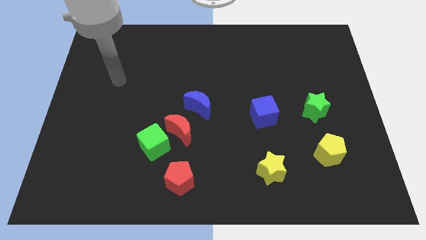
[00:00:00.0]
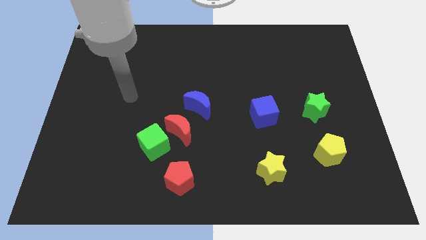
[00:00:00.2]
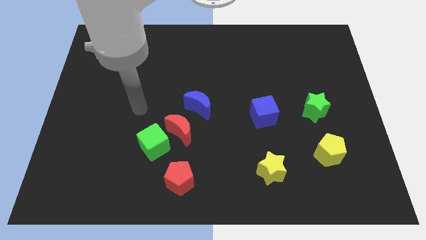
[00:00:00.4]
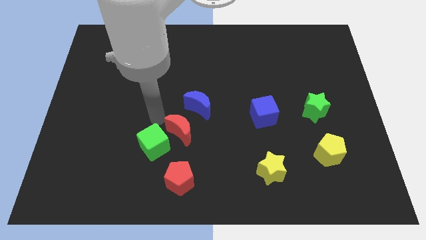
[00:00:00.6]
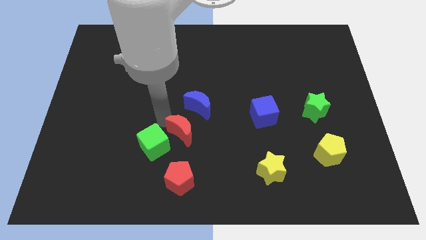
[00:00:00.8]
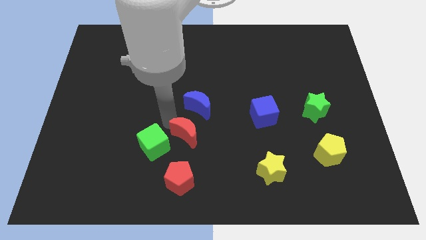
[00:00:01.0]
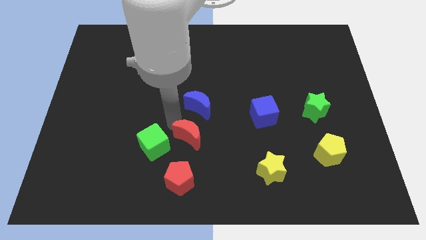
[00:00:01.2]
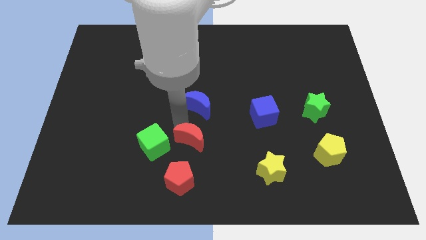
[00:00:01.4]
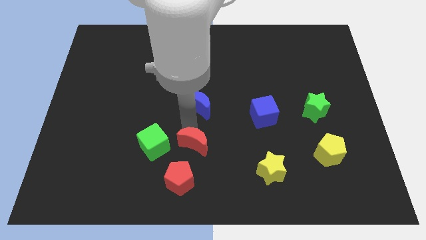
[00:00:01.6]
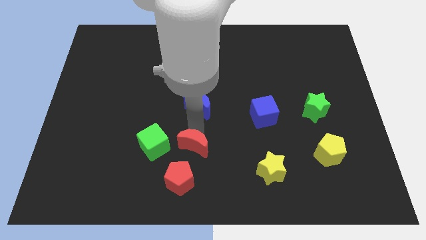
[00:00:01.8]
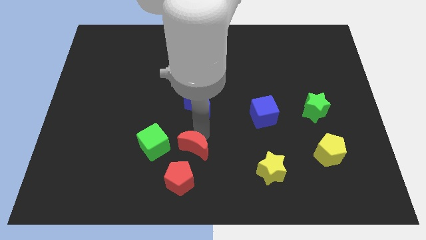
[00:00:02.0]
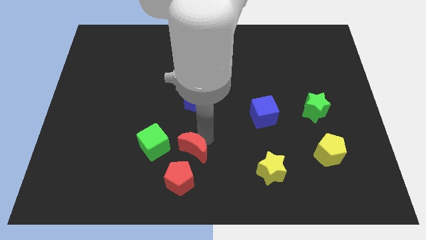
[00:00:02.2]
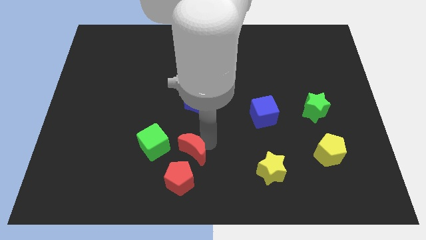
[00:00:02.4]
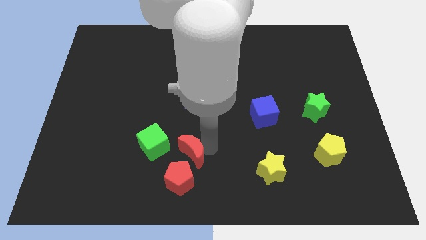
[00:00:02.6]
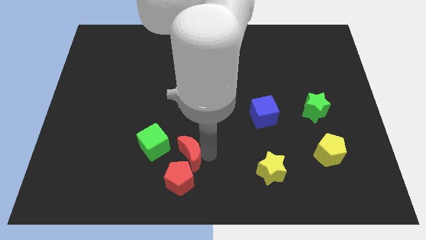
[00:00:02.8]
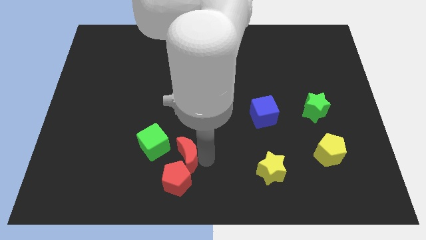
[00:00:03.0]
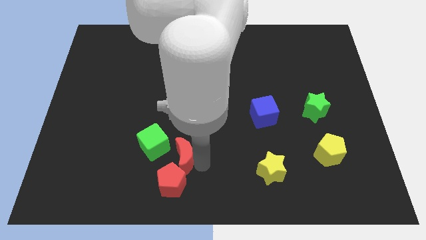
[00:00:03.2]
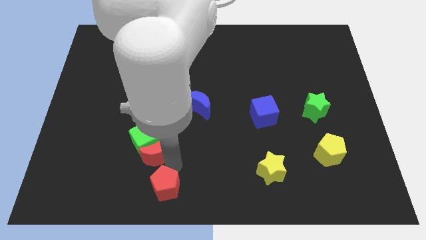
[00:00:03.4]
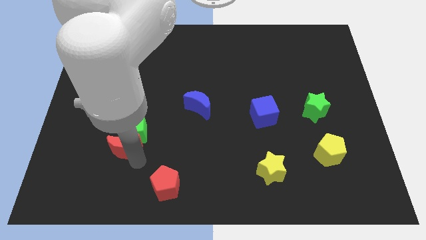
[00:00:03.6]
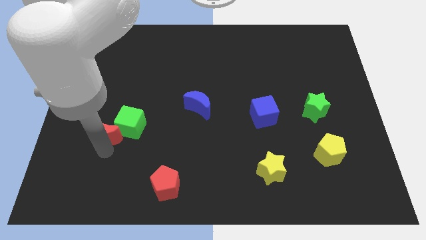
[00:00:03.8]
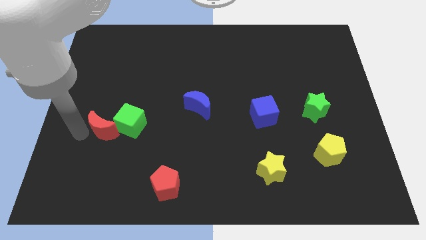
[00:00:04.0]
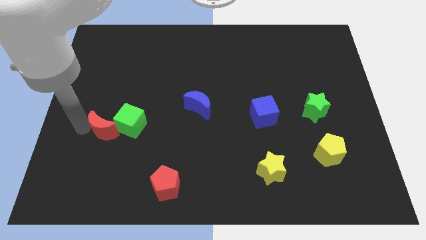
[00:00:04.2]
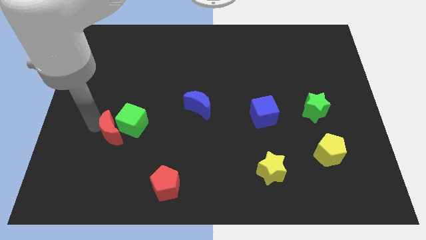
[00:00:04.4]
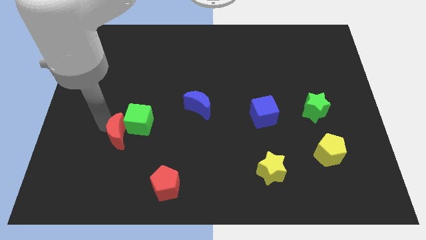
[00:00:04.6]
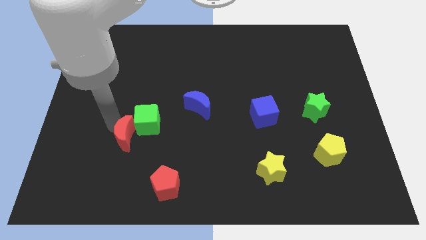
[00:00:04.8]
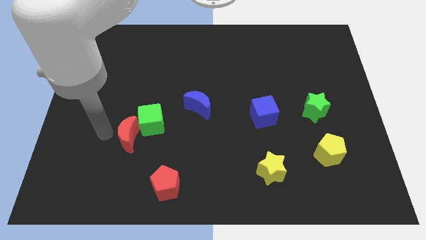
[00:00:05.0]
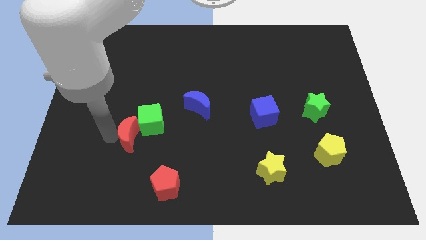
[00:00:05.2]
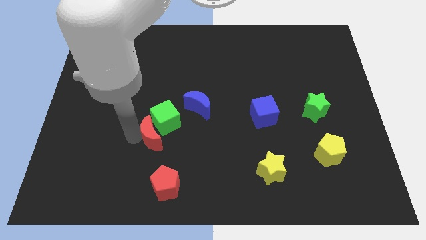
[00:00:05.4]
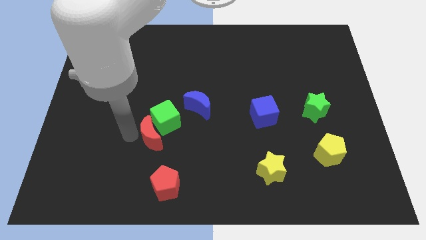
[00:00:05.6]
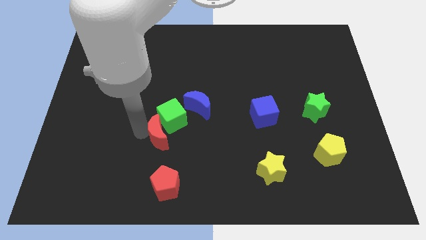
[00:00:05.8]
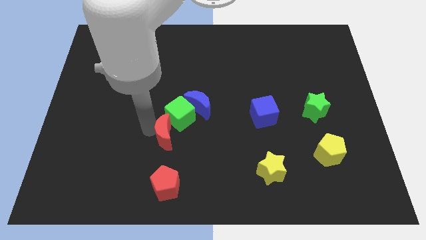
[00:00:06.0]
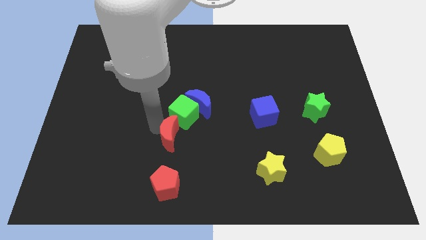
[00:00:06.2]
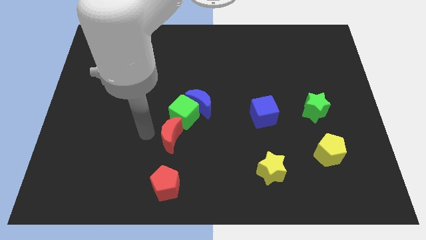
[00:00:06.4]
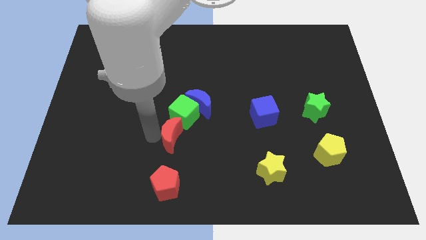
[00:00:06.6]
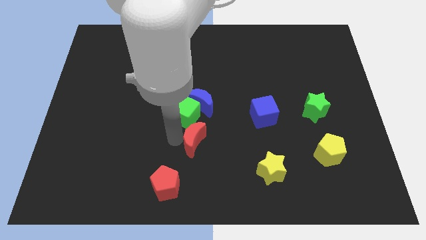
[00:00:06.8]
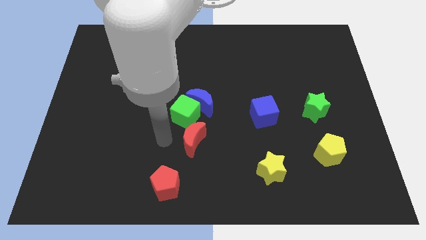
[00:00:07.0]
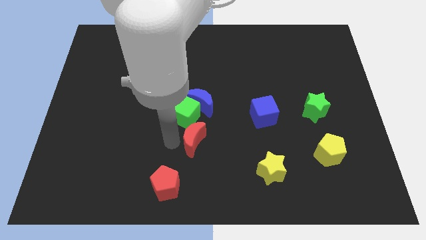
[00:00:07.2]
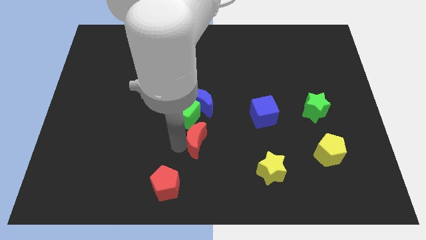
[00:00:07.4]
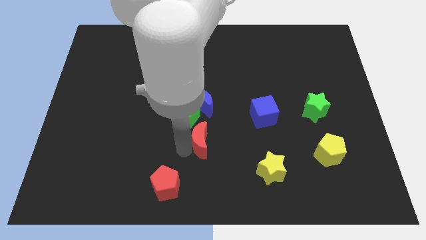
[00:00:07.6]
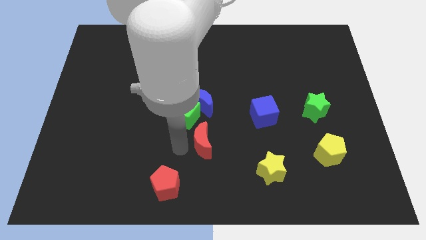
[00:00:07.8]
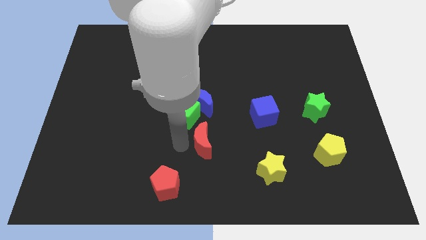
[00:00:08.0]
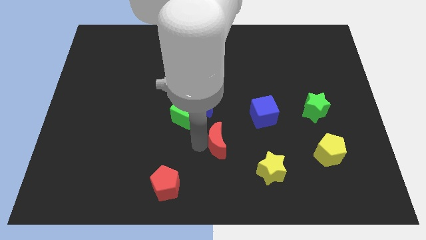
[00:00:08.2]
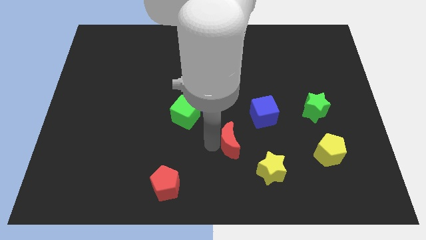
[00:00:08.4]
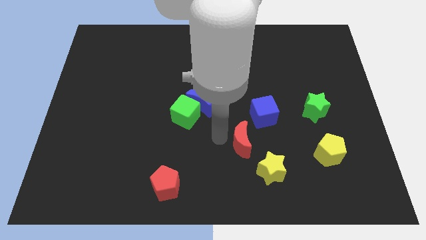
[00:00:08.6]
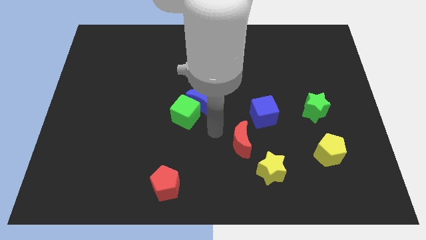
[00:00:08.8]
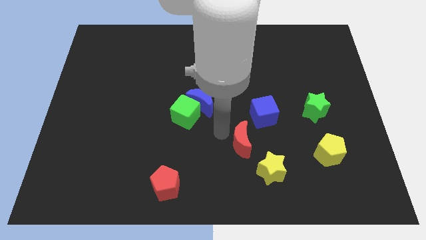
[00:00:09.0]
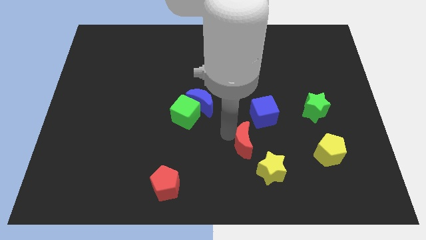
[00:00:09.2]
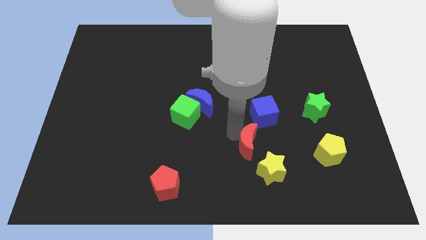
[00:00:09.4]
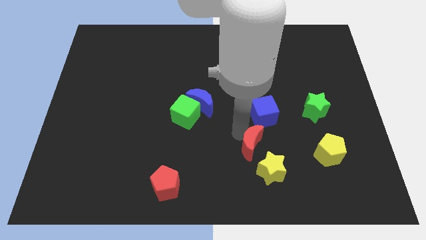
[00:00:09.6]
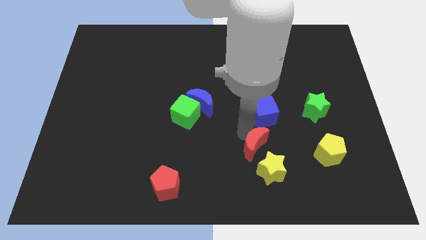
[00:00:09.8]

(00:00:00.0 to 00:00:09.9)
slide the red moon to the left side of the yellow pentagon

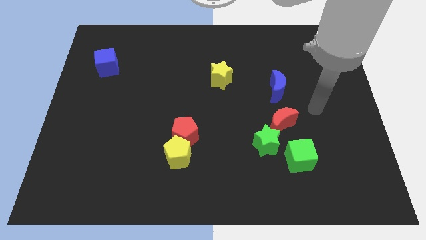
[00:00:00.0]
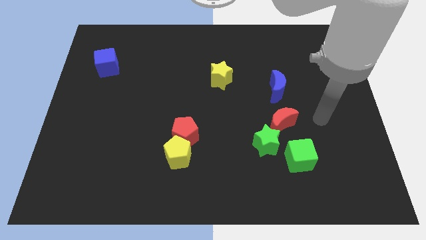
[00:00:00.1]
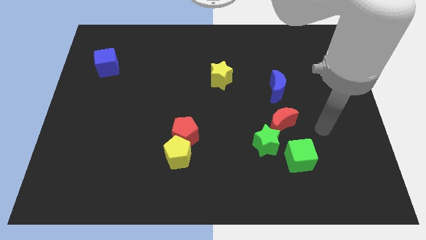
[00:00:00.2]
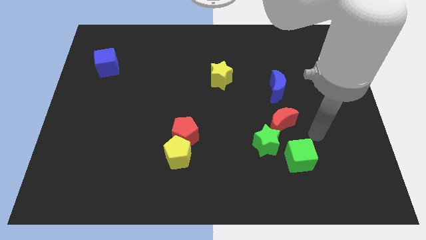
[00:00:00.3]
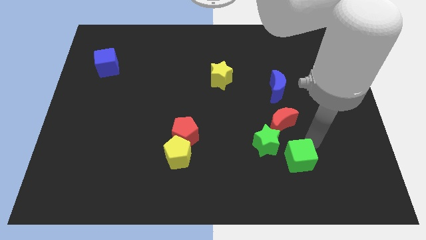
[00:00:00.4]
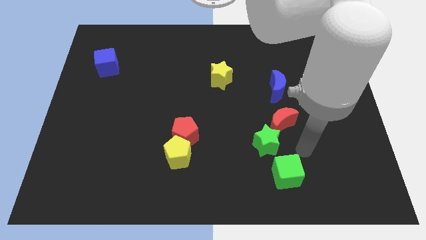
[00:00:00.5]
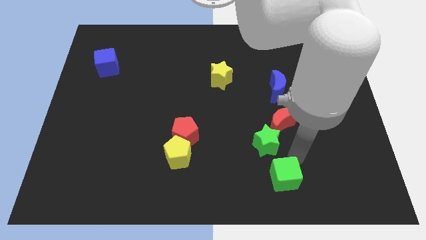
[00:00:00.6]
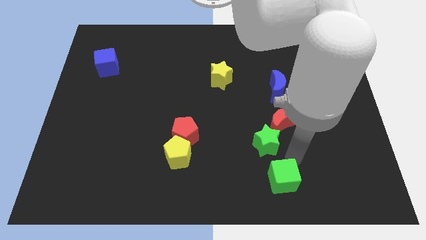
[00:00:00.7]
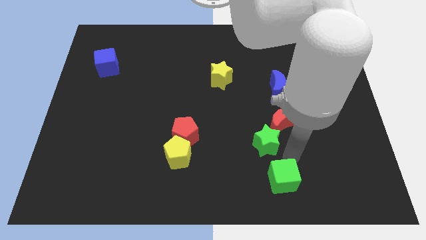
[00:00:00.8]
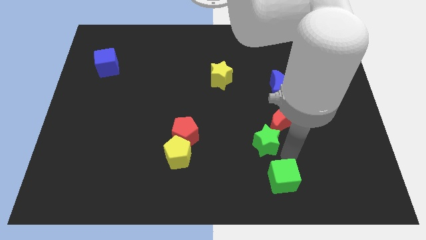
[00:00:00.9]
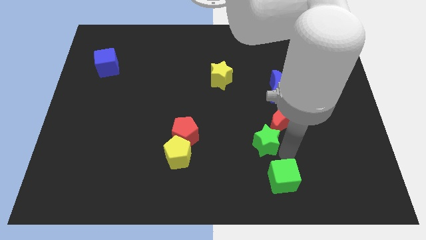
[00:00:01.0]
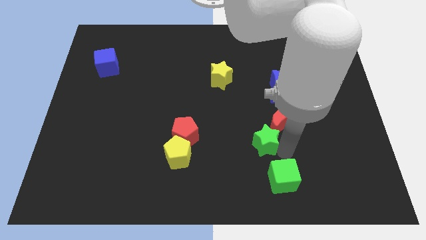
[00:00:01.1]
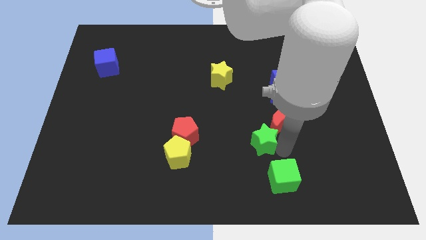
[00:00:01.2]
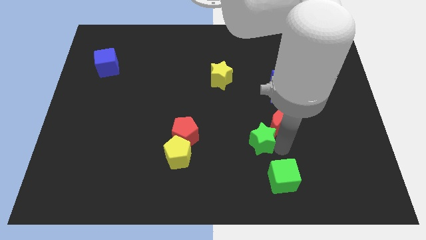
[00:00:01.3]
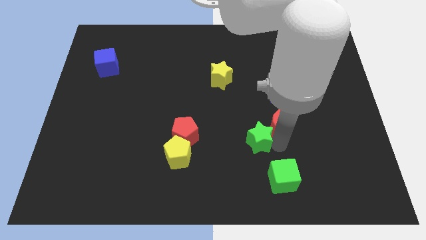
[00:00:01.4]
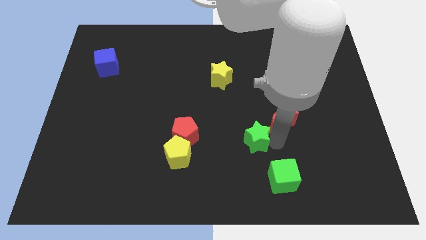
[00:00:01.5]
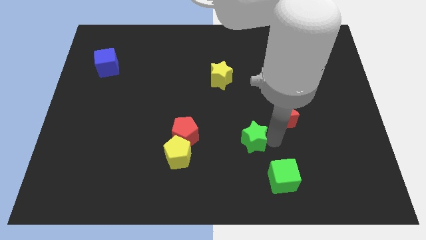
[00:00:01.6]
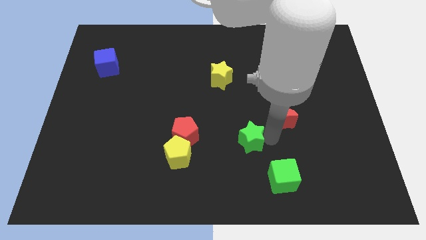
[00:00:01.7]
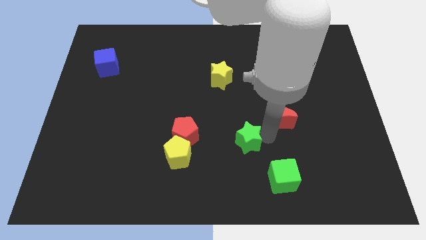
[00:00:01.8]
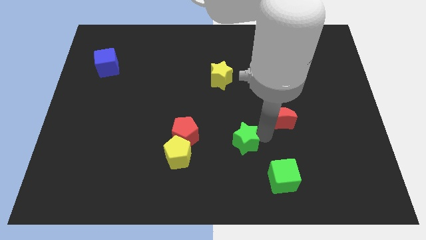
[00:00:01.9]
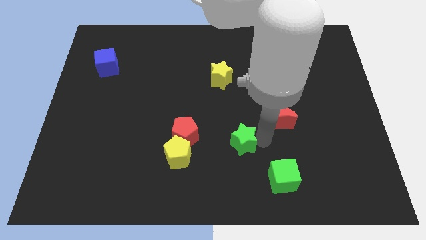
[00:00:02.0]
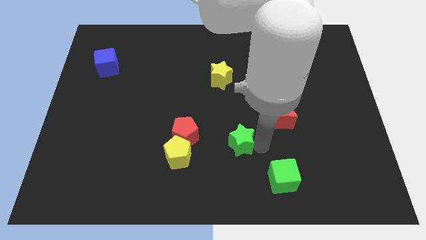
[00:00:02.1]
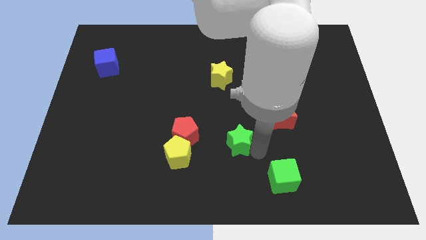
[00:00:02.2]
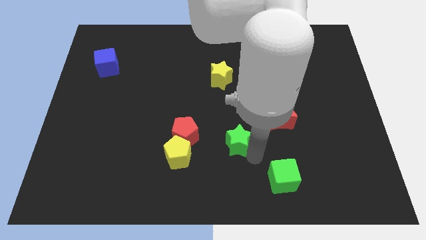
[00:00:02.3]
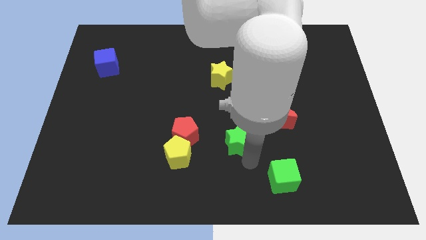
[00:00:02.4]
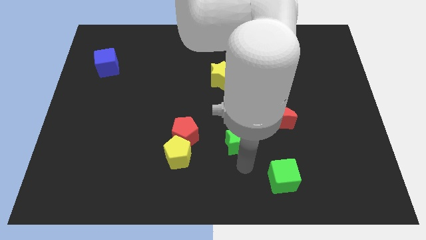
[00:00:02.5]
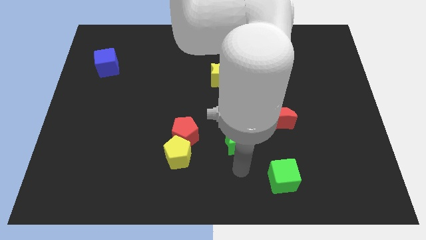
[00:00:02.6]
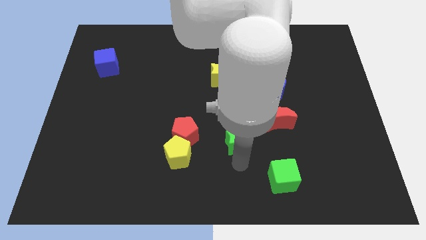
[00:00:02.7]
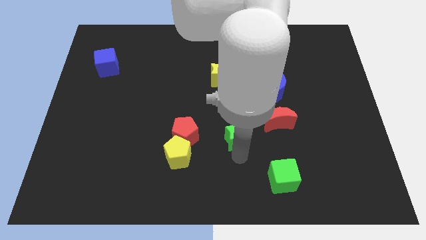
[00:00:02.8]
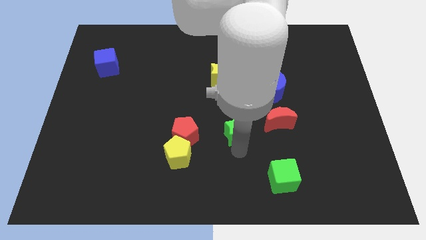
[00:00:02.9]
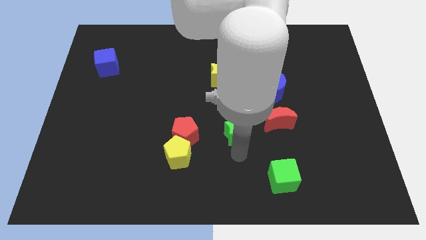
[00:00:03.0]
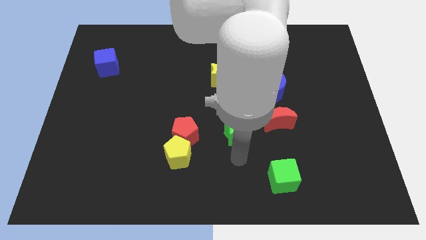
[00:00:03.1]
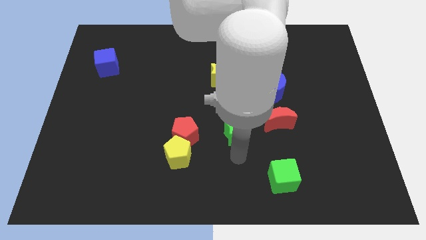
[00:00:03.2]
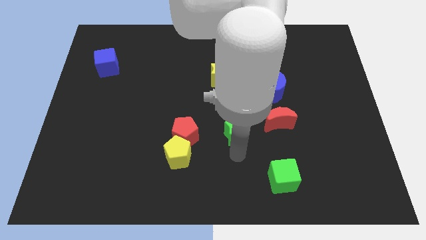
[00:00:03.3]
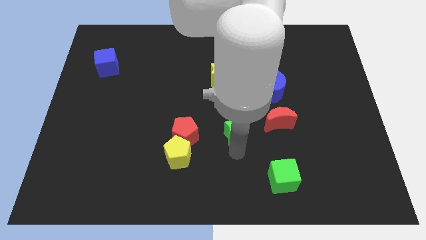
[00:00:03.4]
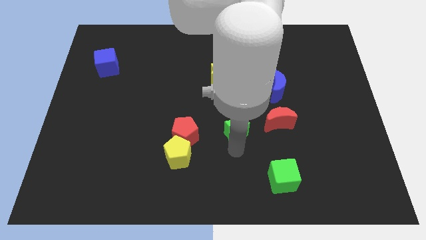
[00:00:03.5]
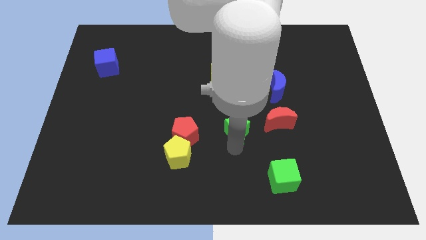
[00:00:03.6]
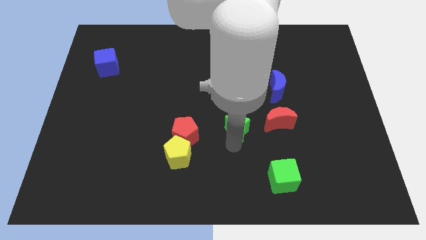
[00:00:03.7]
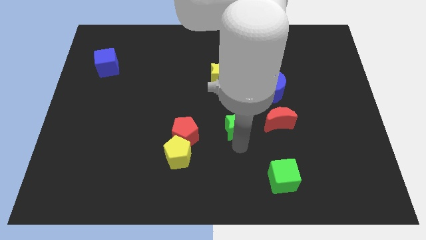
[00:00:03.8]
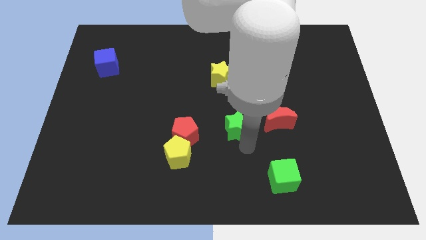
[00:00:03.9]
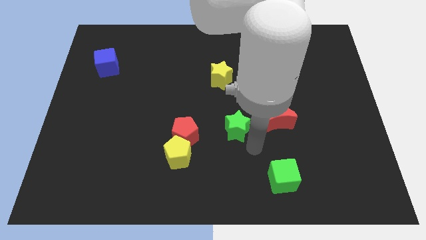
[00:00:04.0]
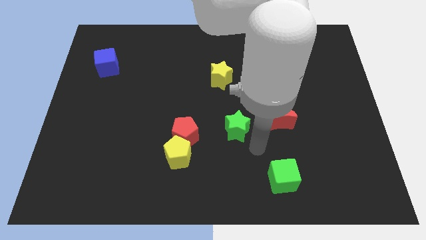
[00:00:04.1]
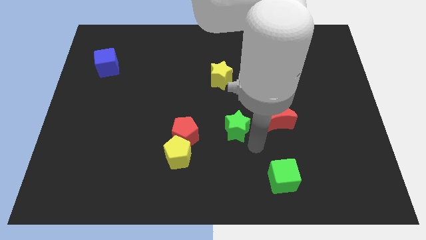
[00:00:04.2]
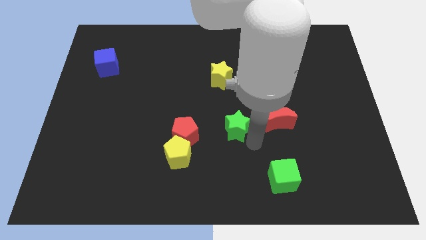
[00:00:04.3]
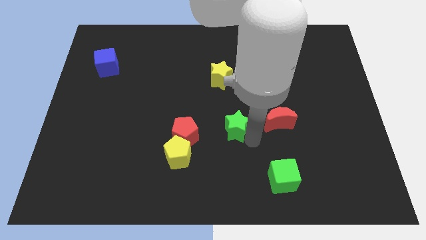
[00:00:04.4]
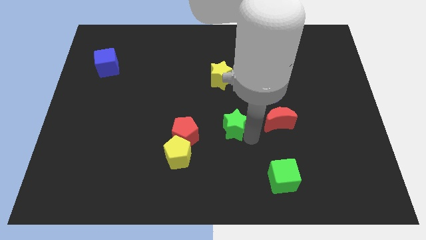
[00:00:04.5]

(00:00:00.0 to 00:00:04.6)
move the green star to the bottom side of the yellow star
